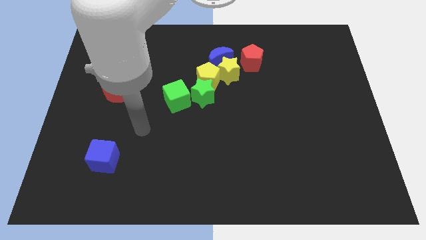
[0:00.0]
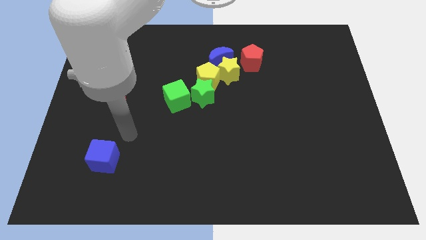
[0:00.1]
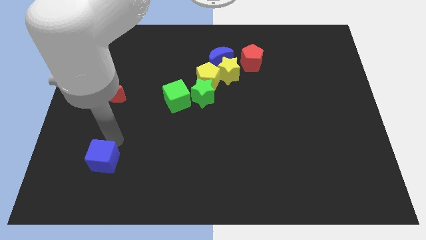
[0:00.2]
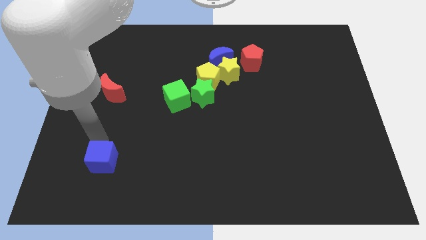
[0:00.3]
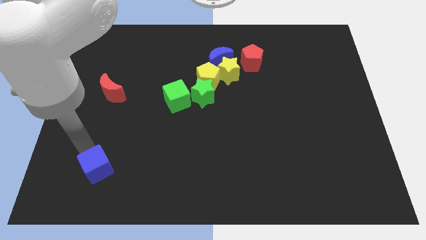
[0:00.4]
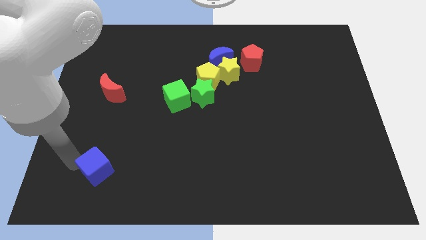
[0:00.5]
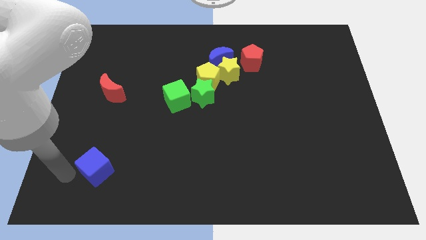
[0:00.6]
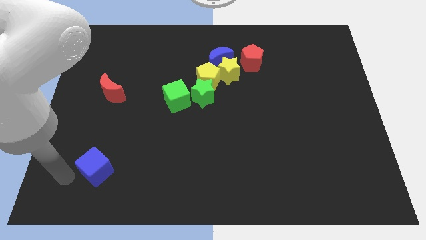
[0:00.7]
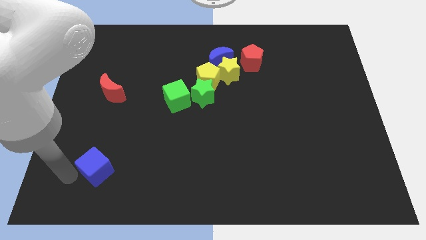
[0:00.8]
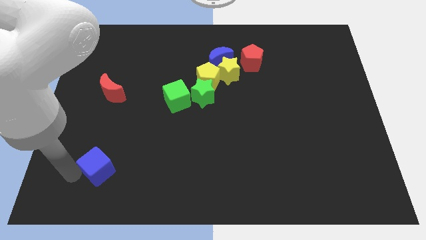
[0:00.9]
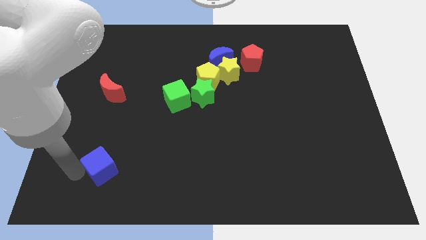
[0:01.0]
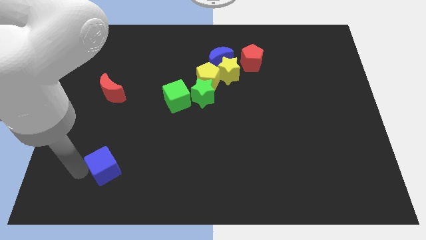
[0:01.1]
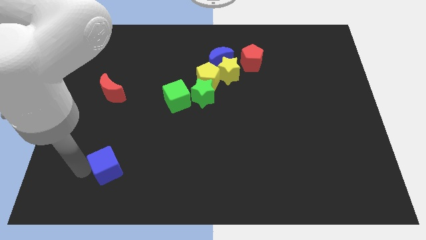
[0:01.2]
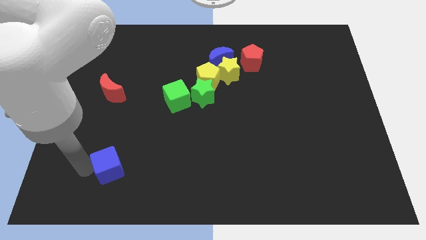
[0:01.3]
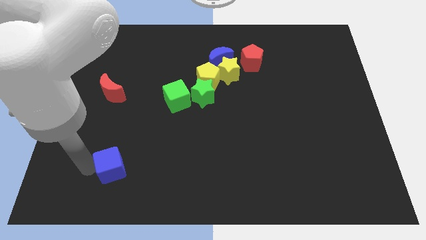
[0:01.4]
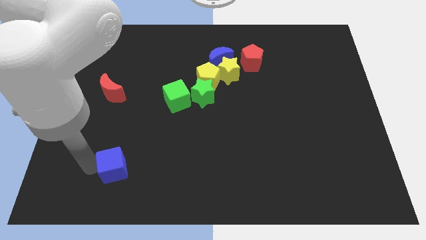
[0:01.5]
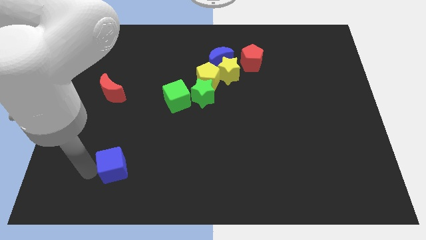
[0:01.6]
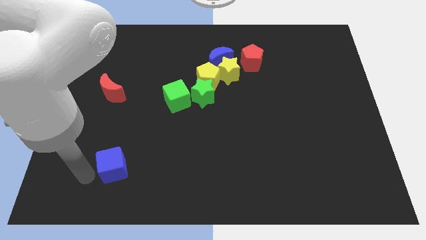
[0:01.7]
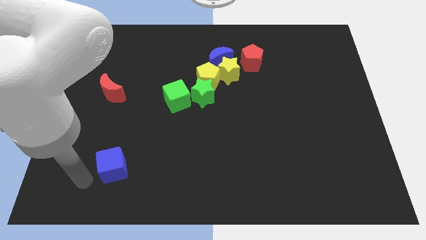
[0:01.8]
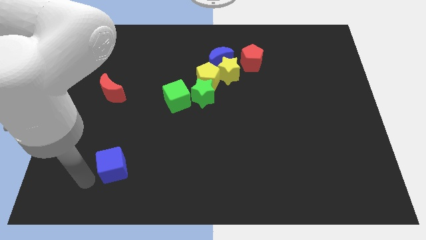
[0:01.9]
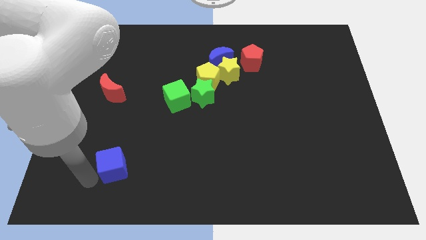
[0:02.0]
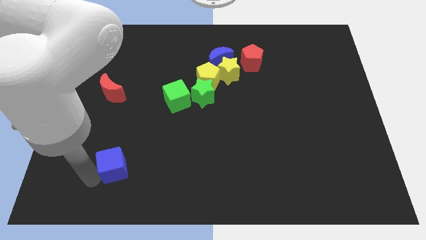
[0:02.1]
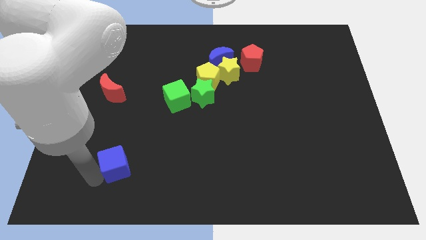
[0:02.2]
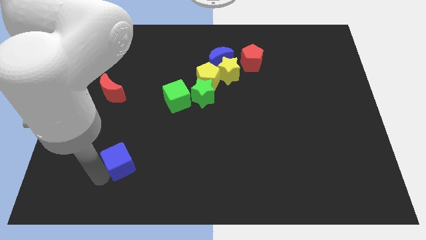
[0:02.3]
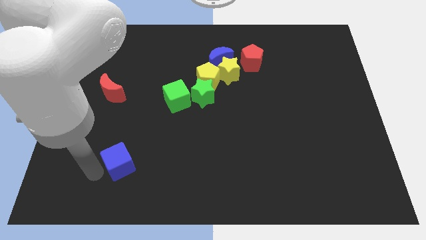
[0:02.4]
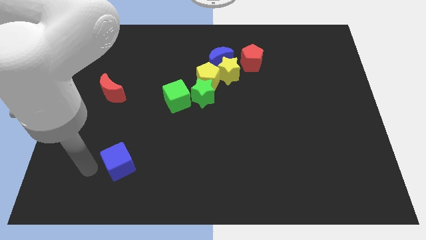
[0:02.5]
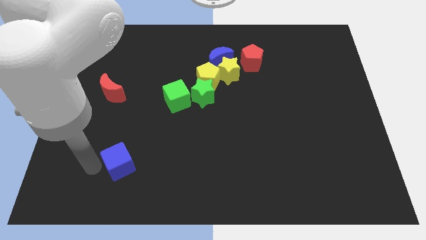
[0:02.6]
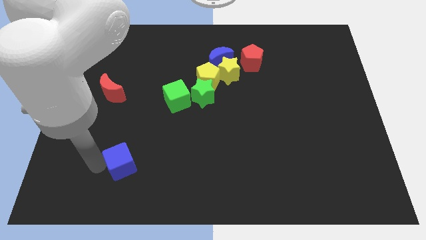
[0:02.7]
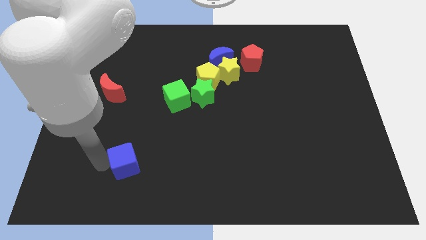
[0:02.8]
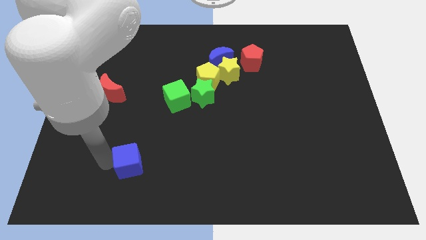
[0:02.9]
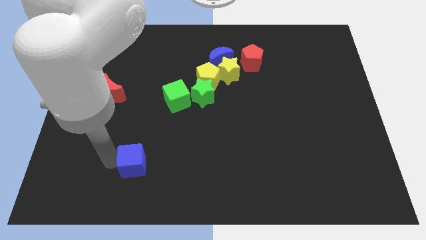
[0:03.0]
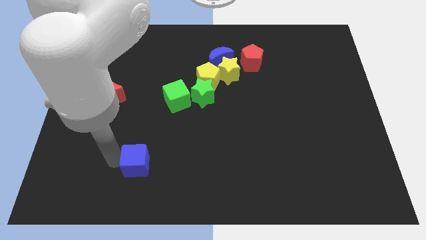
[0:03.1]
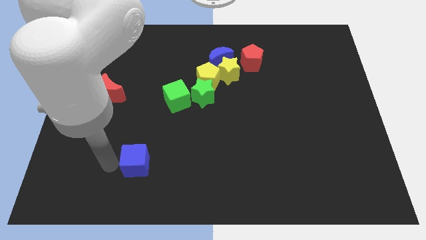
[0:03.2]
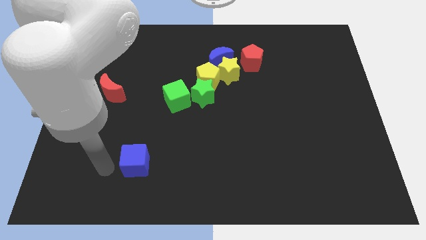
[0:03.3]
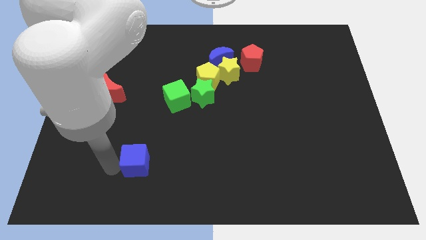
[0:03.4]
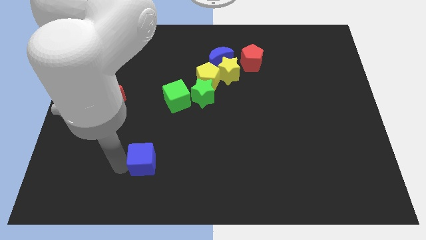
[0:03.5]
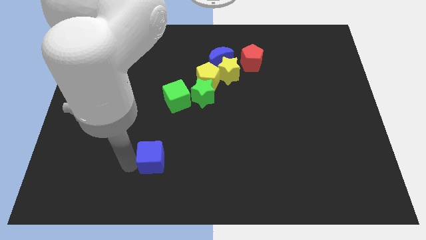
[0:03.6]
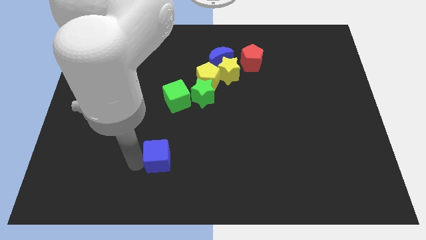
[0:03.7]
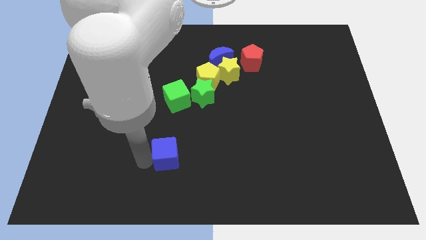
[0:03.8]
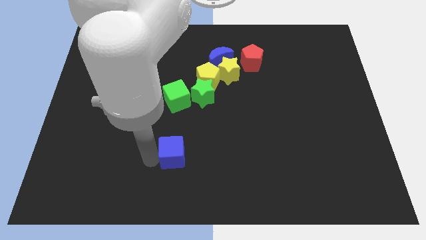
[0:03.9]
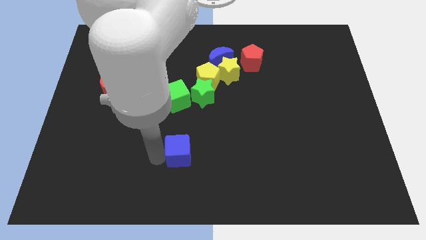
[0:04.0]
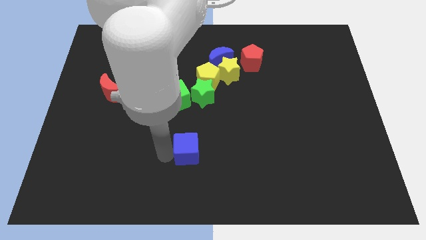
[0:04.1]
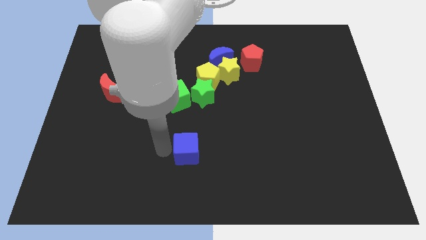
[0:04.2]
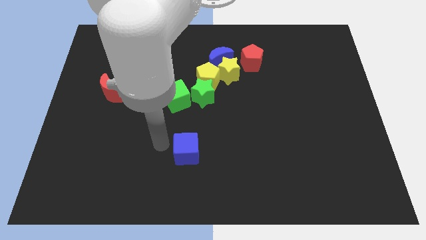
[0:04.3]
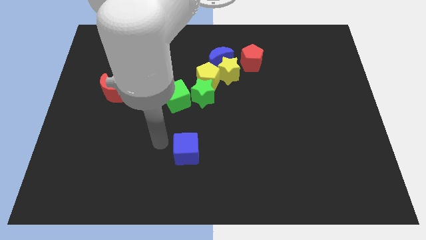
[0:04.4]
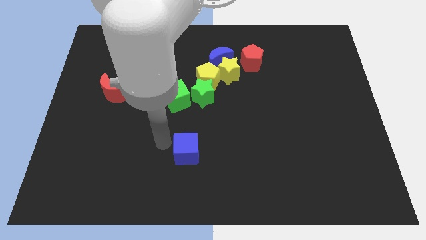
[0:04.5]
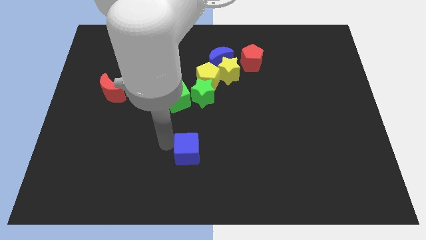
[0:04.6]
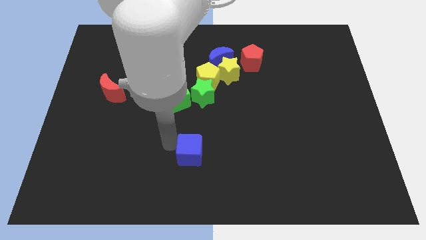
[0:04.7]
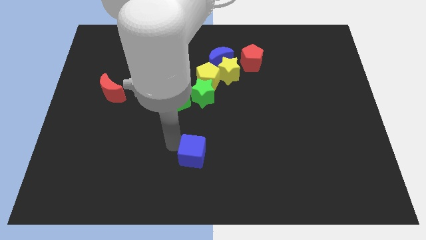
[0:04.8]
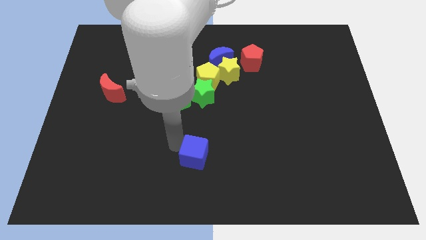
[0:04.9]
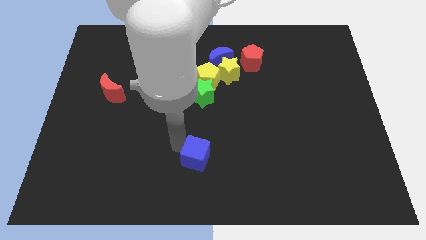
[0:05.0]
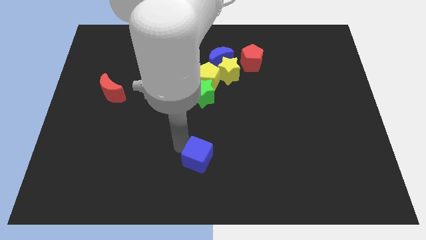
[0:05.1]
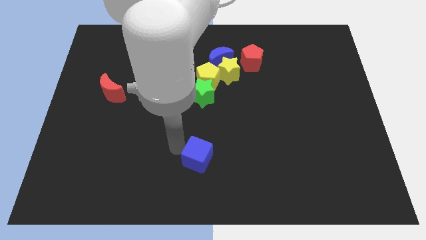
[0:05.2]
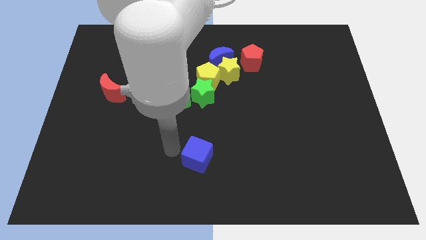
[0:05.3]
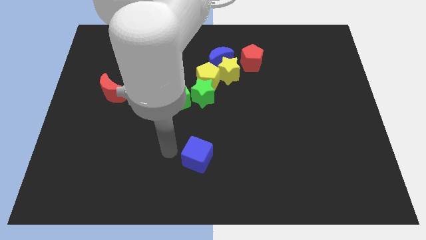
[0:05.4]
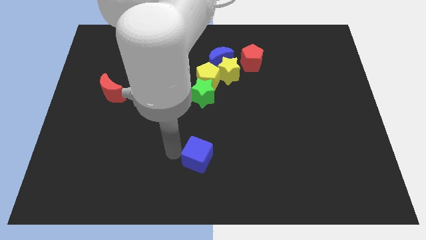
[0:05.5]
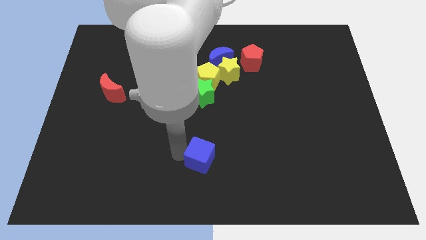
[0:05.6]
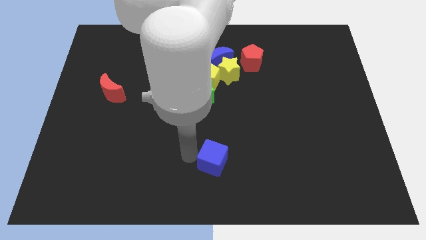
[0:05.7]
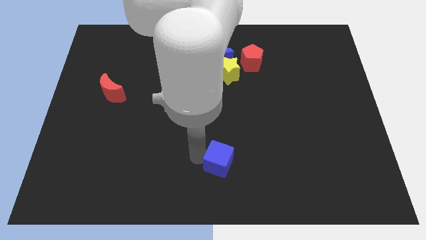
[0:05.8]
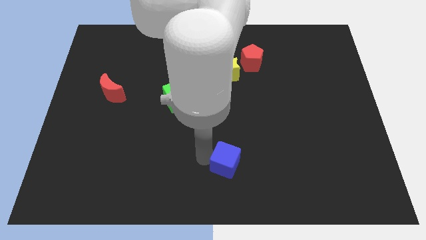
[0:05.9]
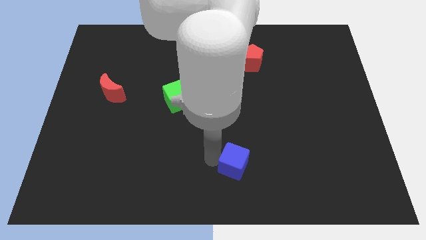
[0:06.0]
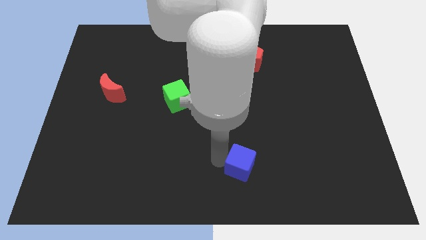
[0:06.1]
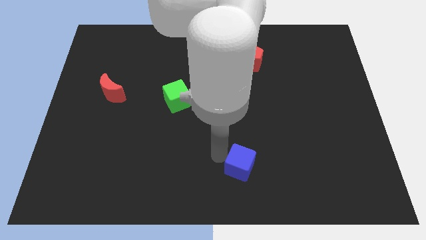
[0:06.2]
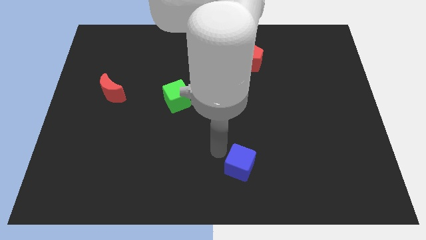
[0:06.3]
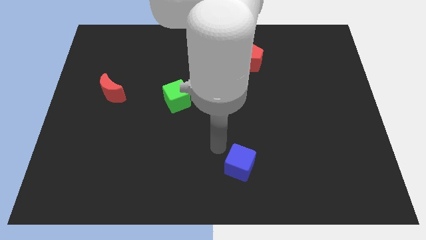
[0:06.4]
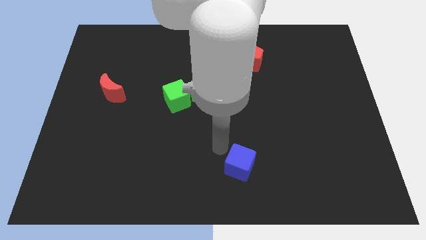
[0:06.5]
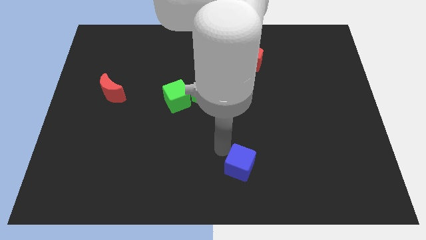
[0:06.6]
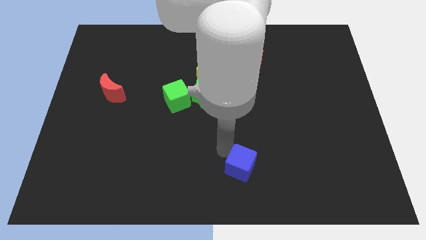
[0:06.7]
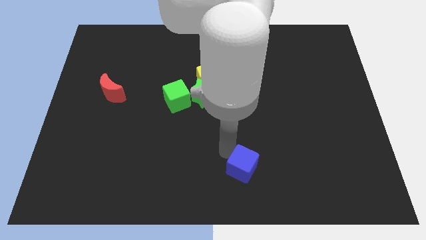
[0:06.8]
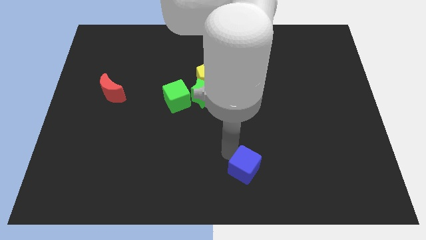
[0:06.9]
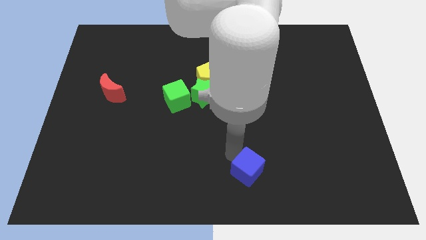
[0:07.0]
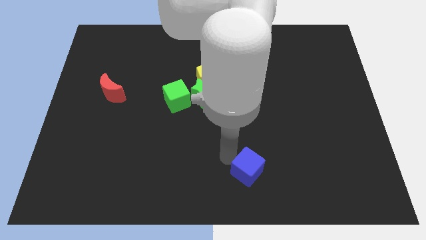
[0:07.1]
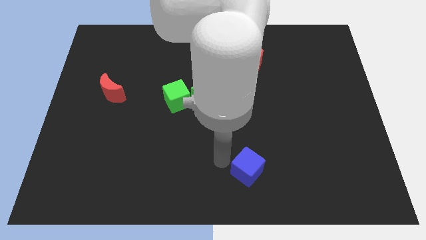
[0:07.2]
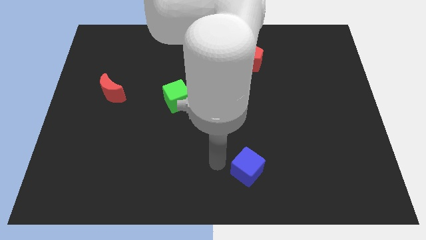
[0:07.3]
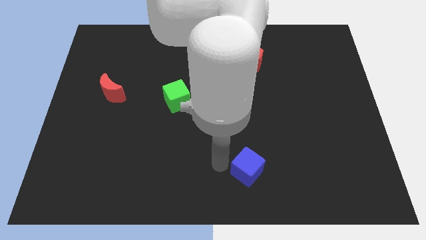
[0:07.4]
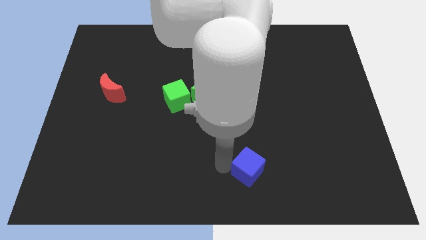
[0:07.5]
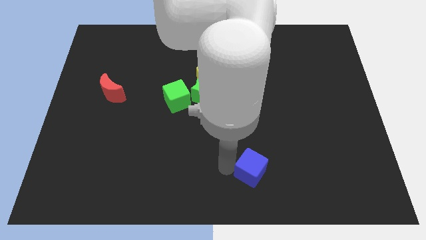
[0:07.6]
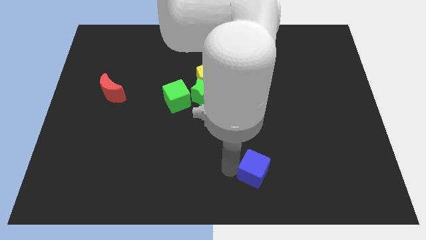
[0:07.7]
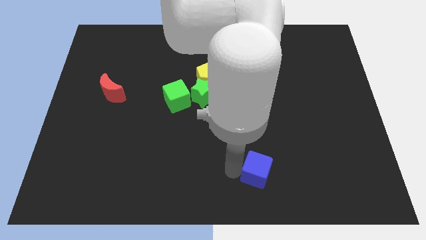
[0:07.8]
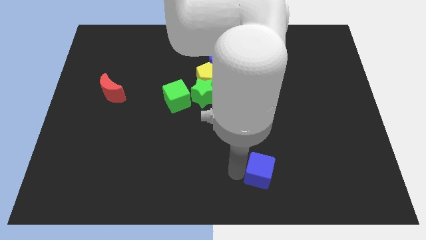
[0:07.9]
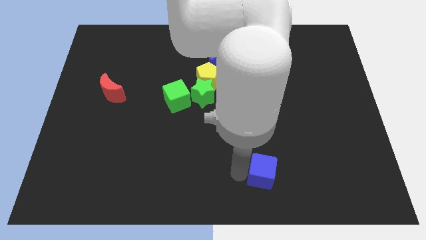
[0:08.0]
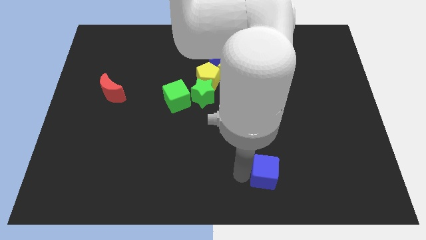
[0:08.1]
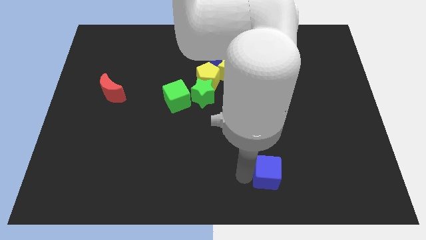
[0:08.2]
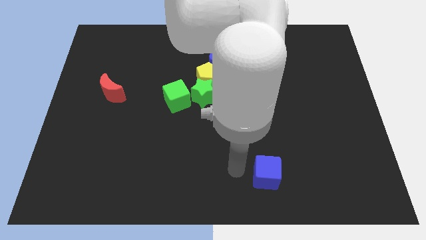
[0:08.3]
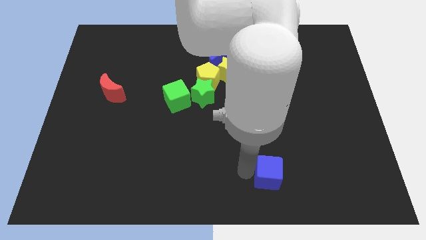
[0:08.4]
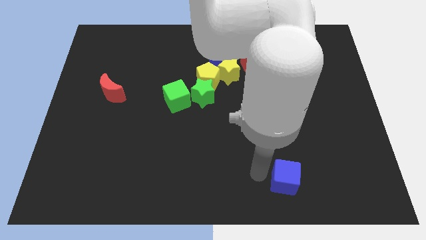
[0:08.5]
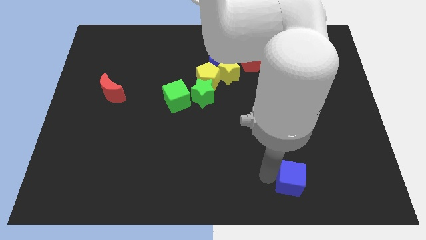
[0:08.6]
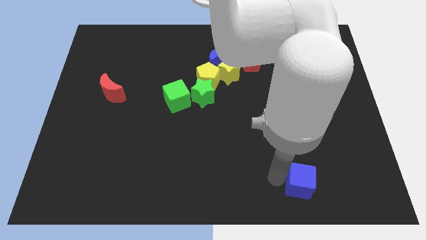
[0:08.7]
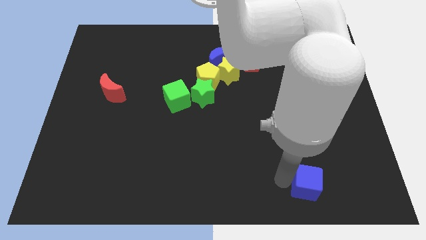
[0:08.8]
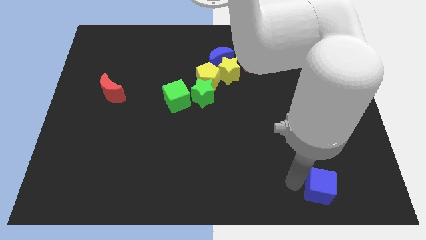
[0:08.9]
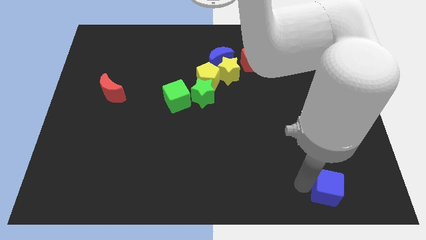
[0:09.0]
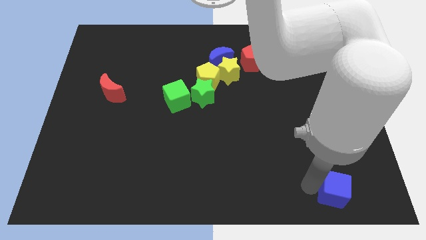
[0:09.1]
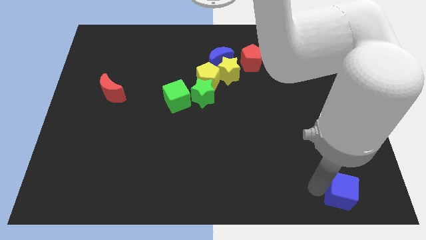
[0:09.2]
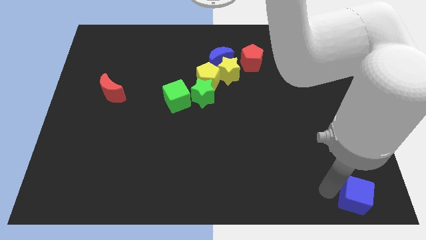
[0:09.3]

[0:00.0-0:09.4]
push the blue cube to the bottom right corner
